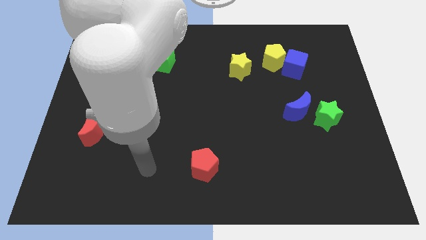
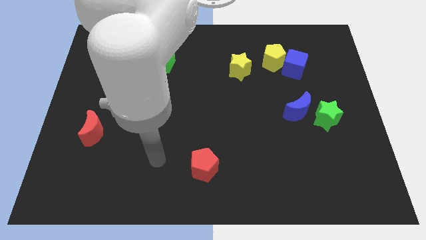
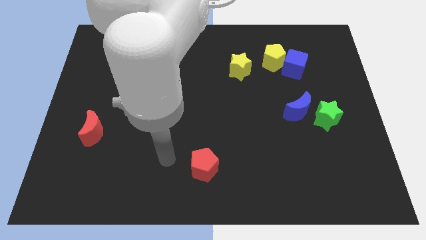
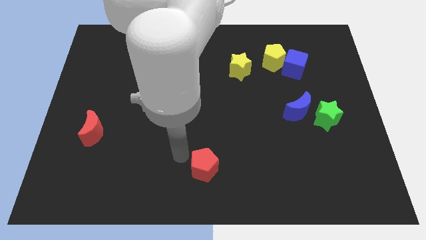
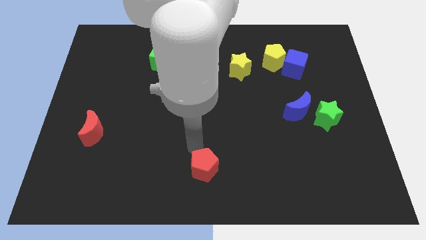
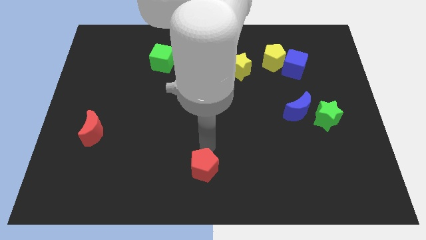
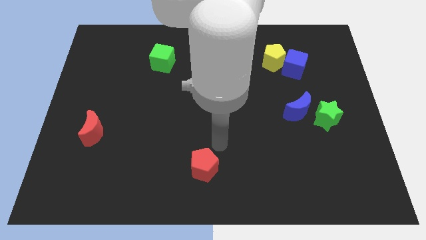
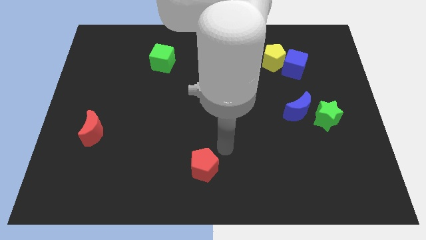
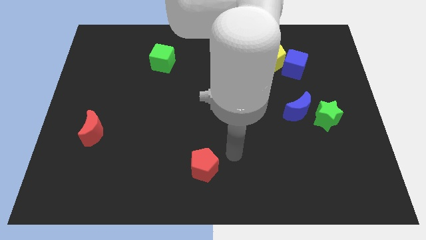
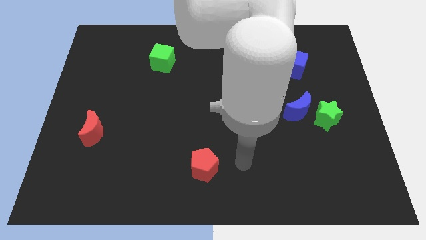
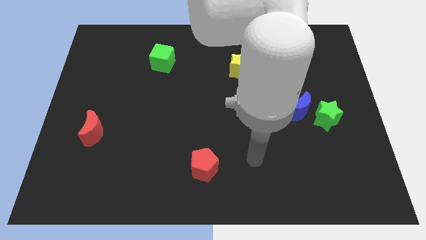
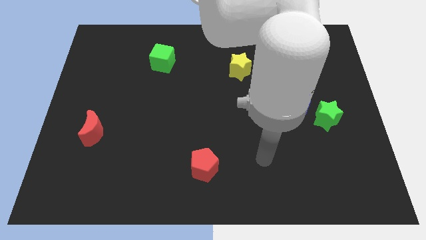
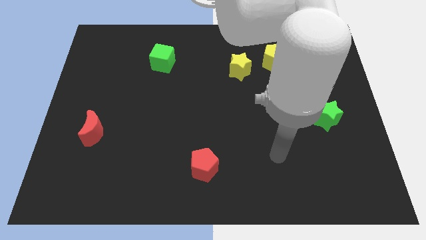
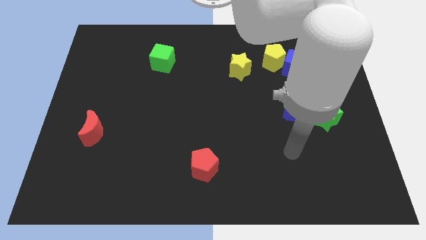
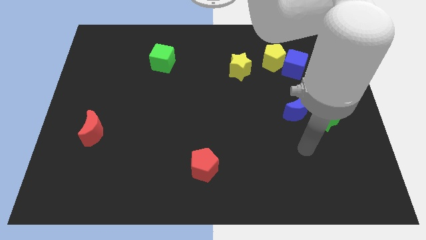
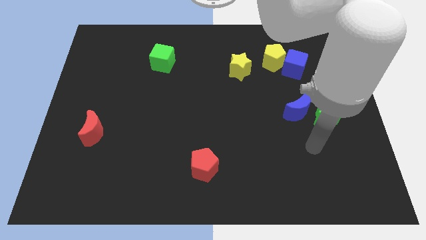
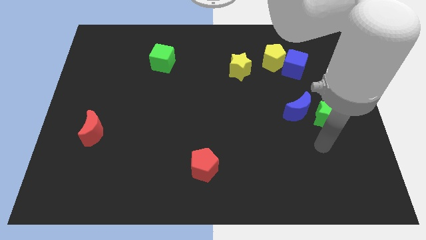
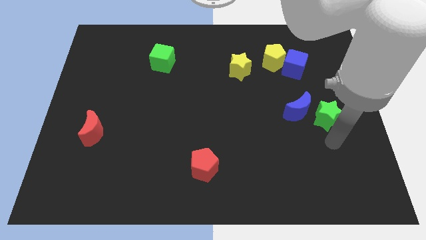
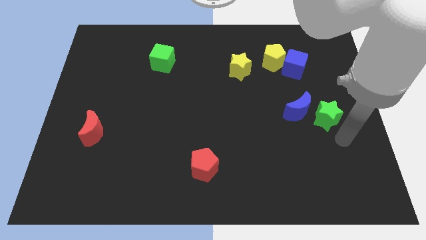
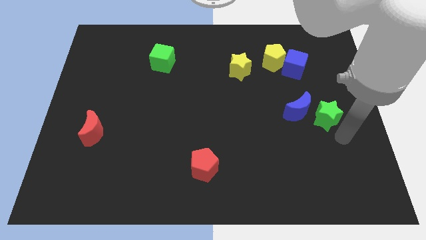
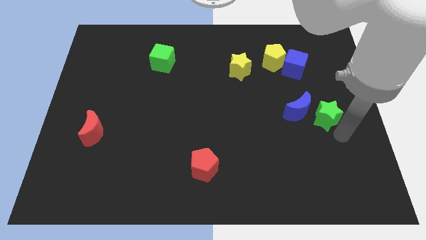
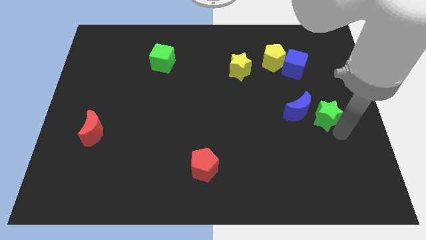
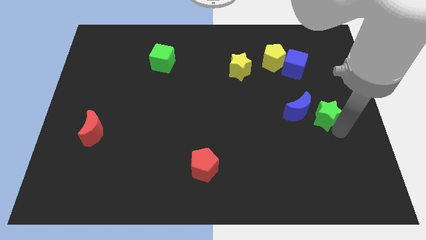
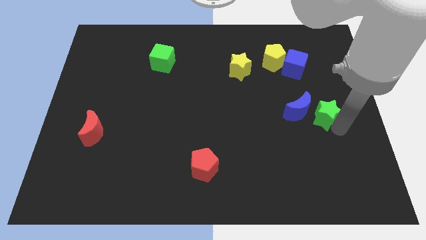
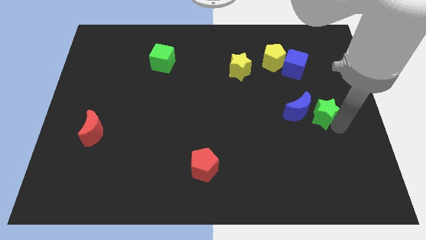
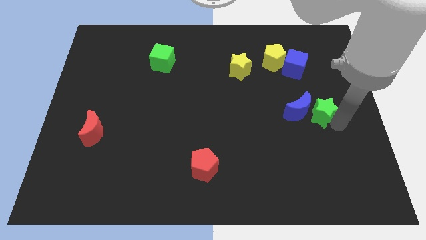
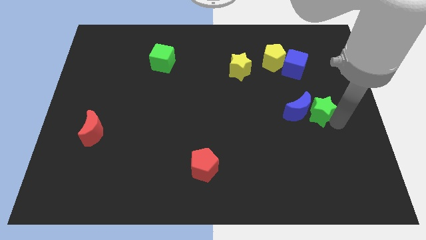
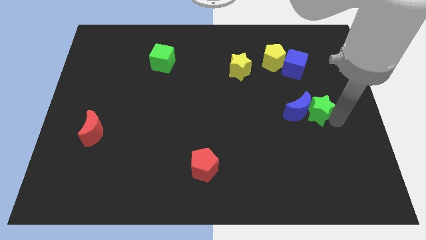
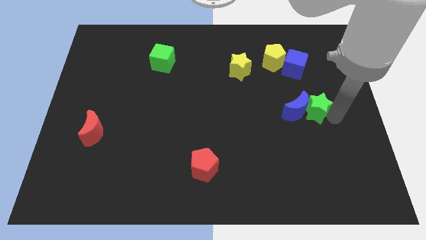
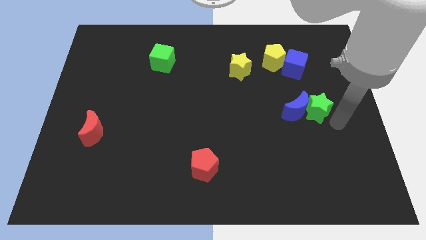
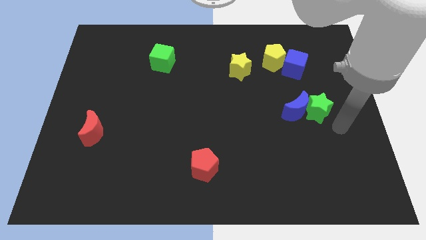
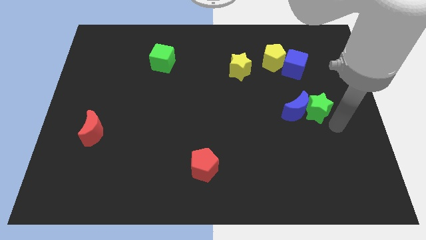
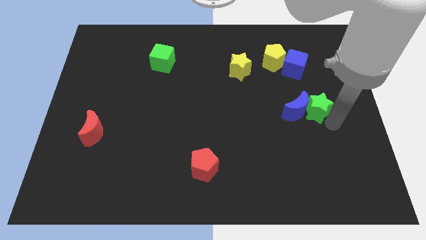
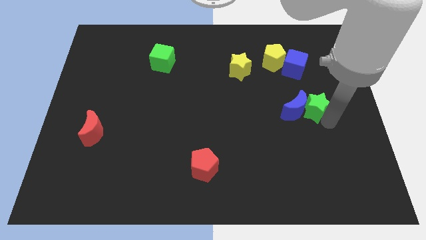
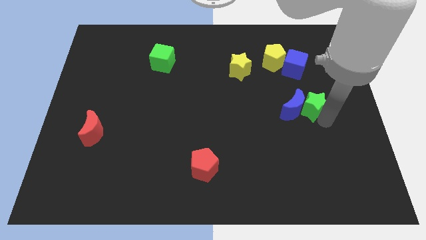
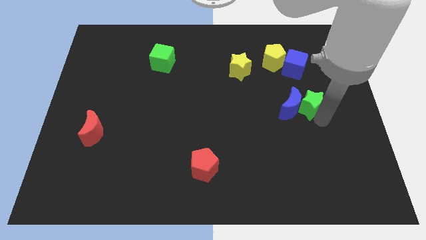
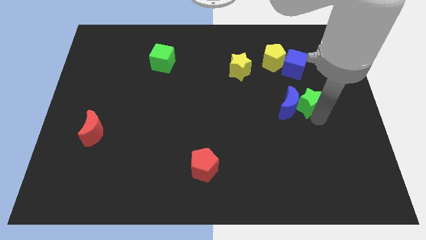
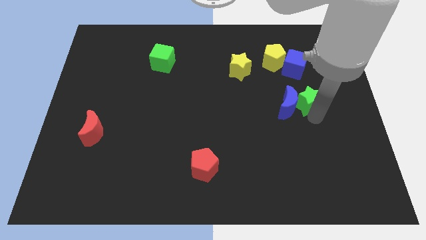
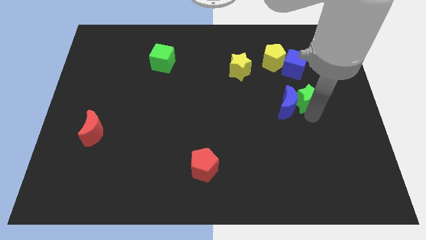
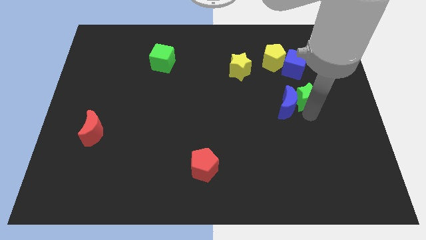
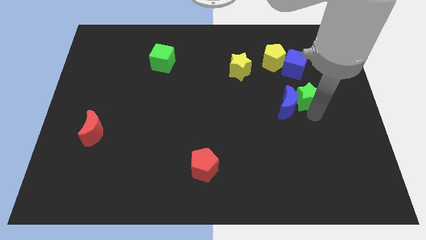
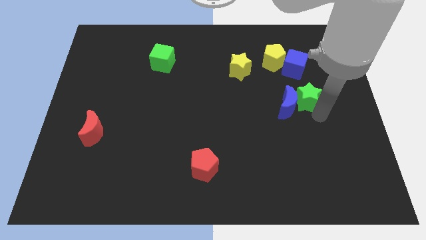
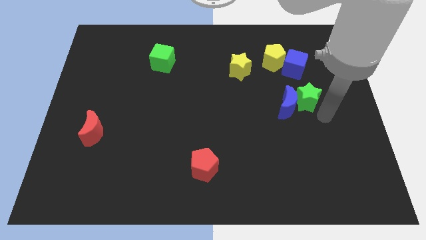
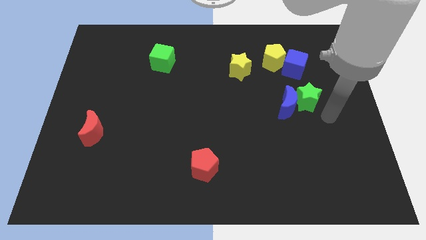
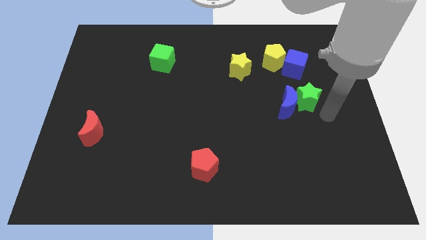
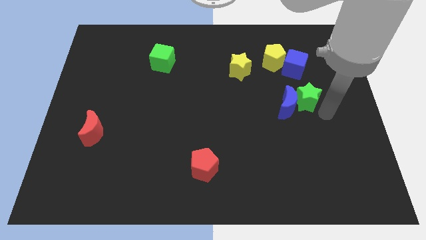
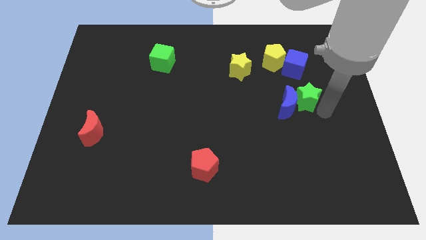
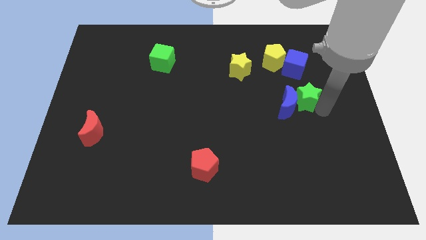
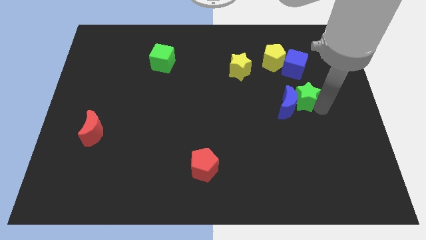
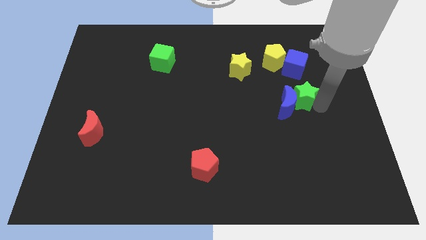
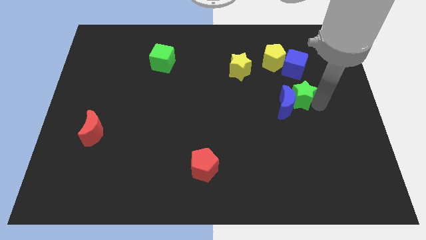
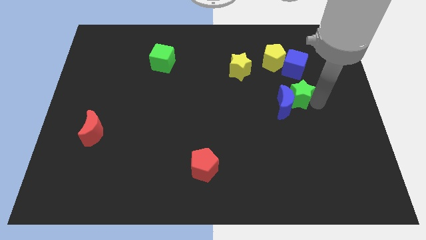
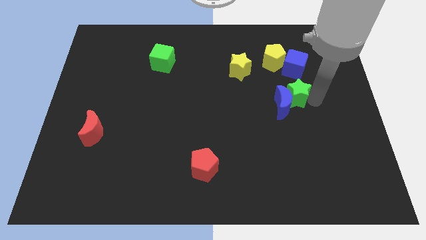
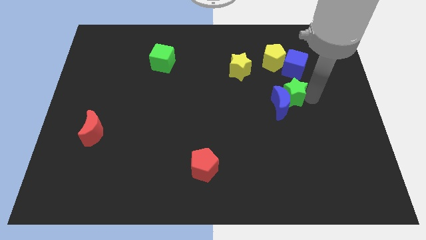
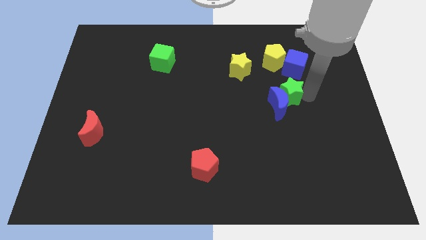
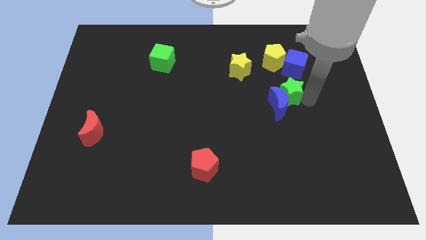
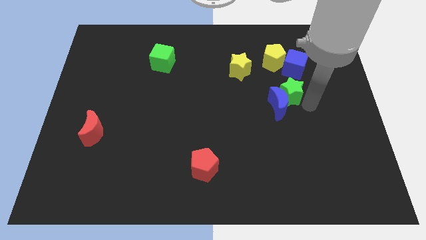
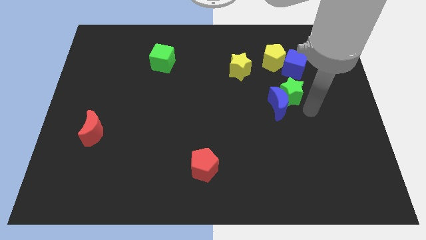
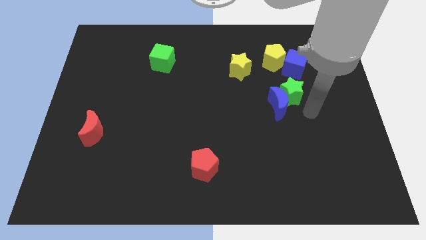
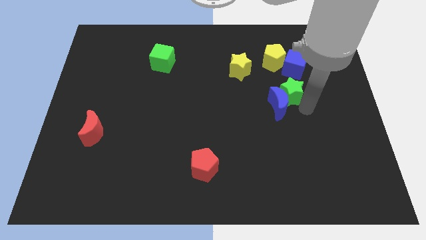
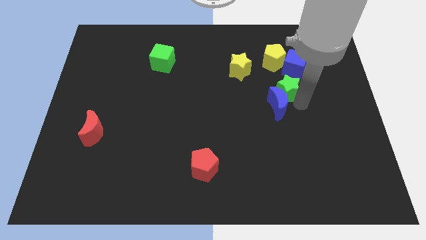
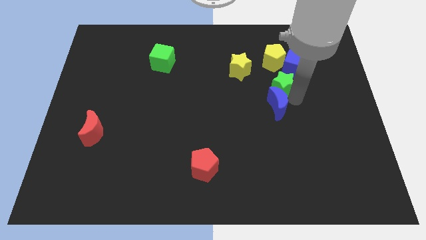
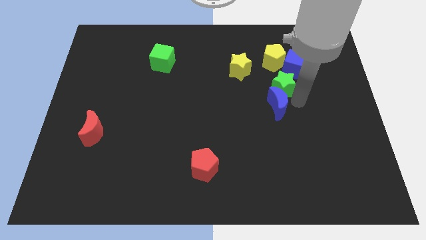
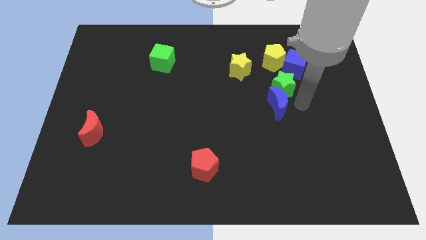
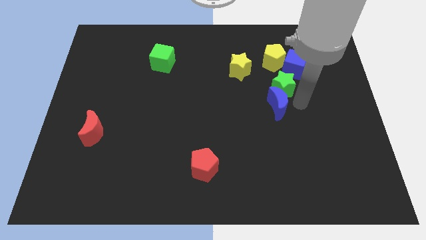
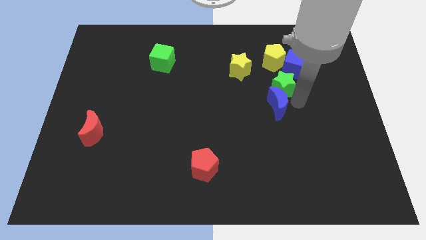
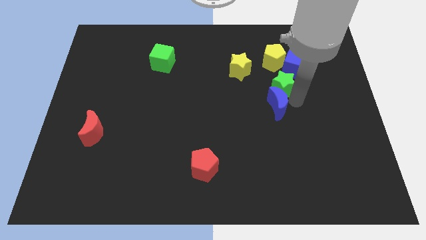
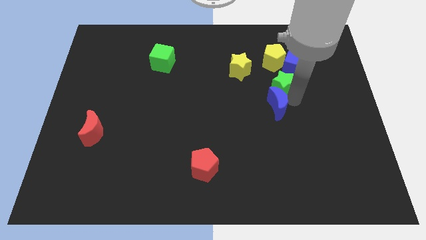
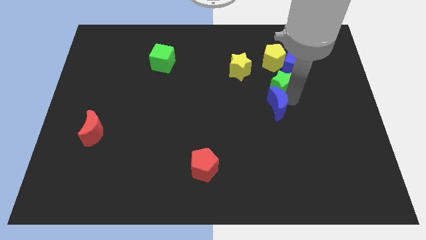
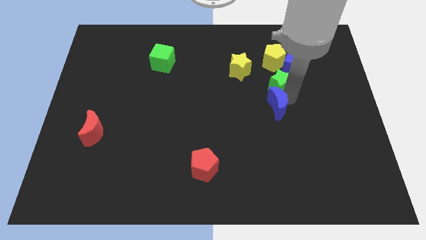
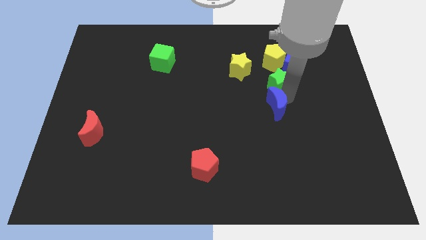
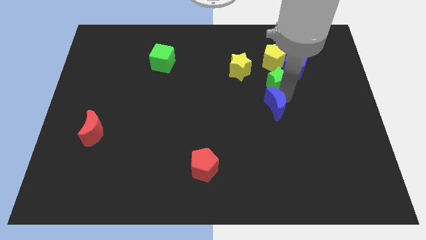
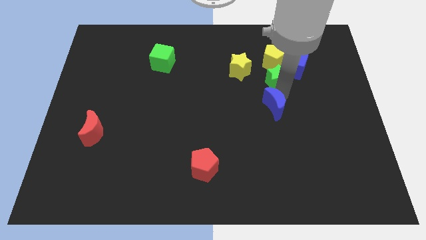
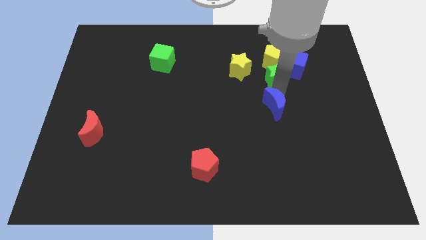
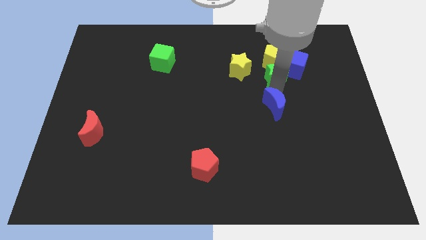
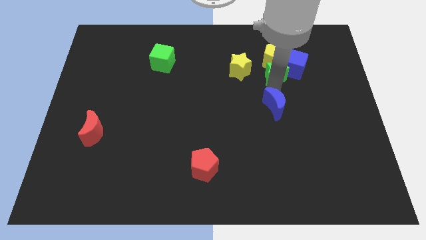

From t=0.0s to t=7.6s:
move the green star towards the yellow pentagon
